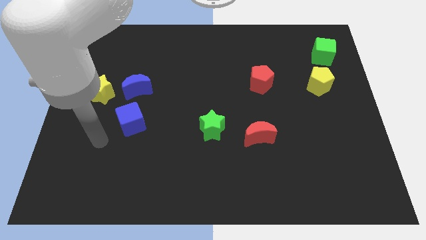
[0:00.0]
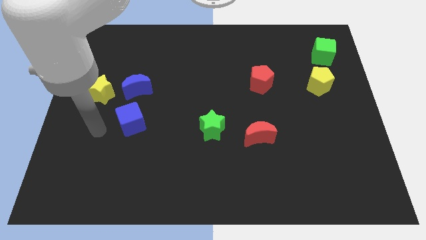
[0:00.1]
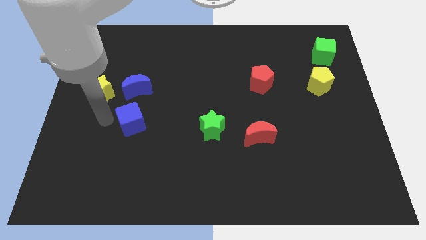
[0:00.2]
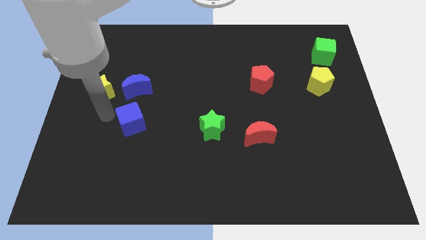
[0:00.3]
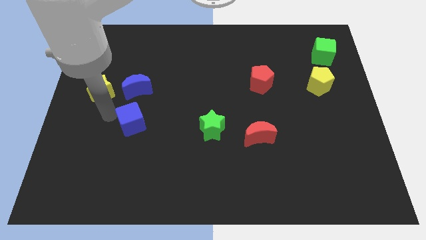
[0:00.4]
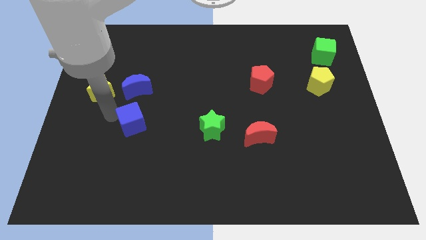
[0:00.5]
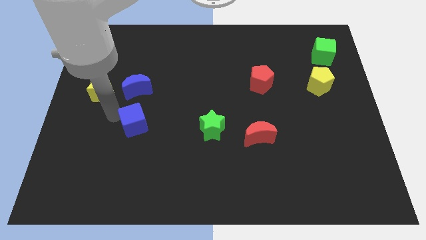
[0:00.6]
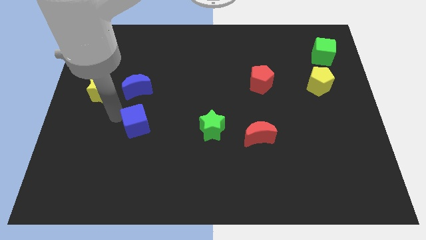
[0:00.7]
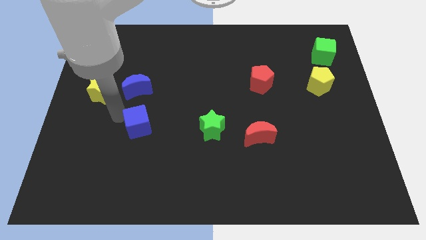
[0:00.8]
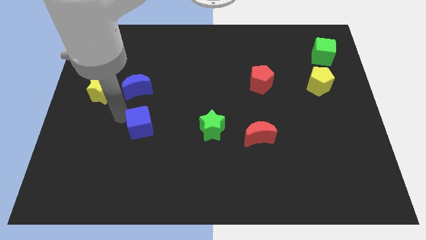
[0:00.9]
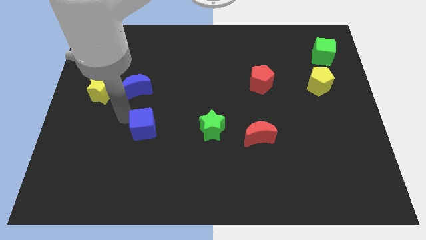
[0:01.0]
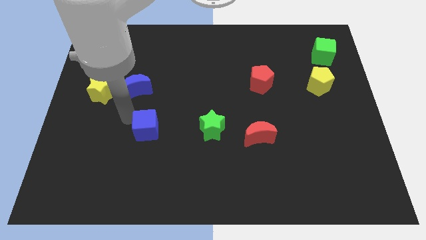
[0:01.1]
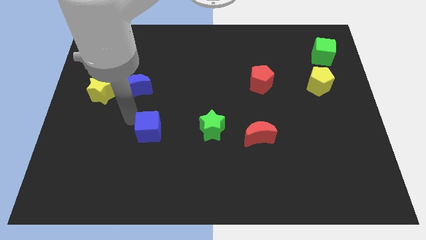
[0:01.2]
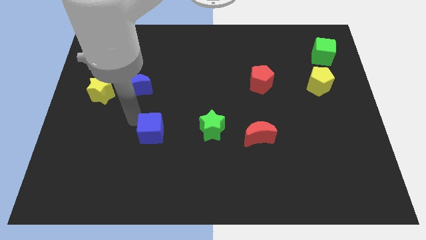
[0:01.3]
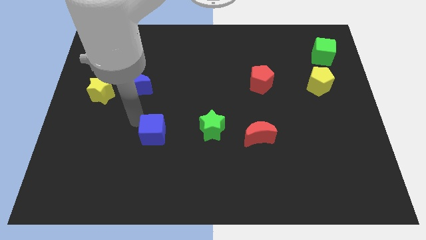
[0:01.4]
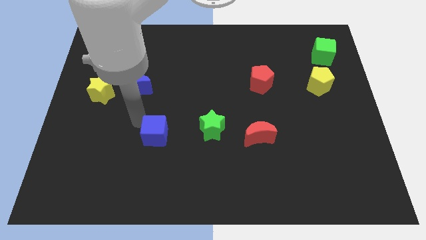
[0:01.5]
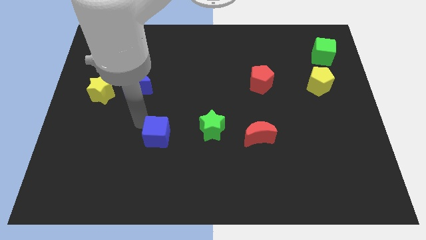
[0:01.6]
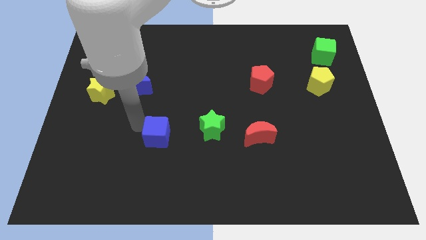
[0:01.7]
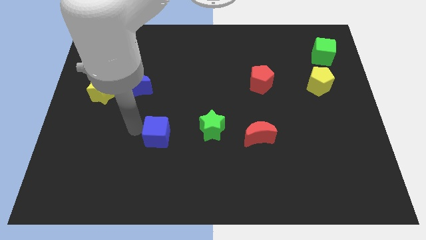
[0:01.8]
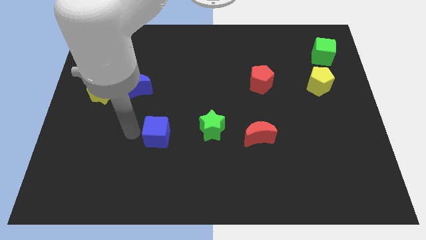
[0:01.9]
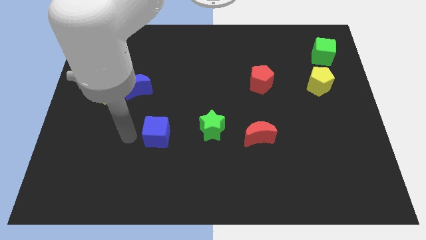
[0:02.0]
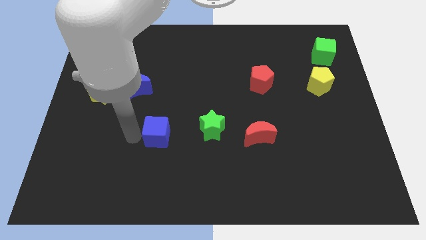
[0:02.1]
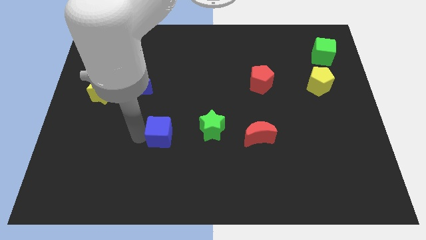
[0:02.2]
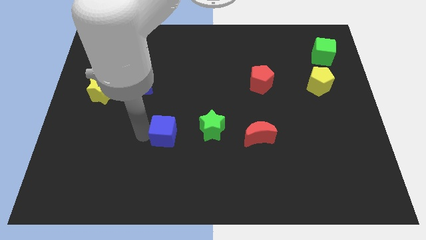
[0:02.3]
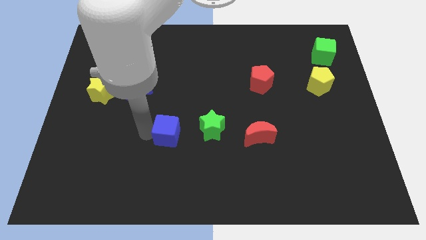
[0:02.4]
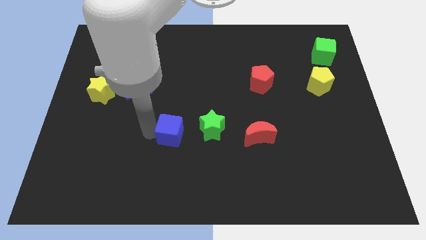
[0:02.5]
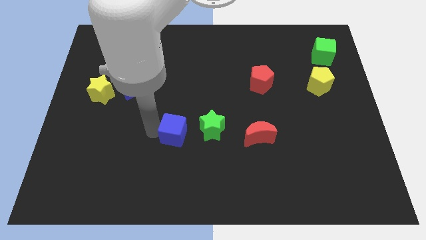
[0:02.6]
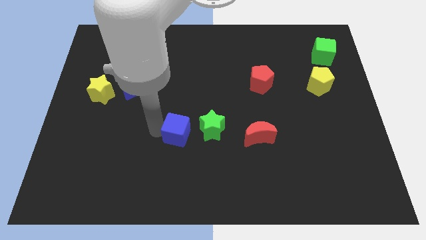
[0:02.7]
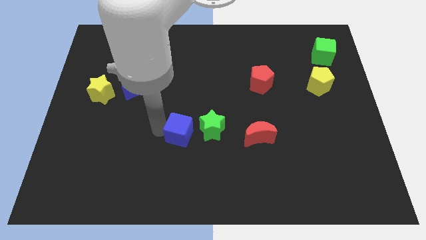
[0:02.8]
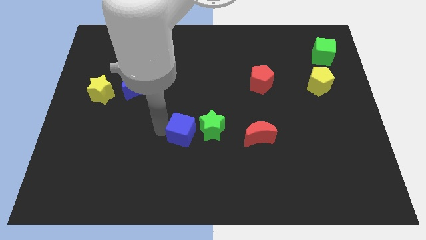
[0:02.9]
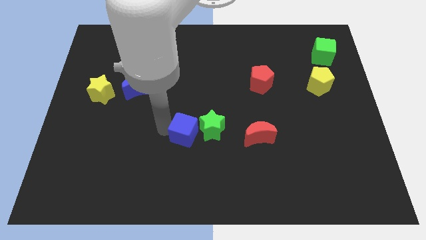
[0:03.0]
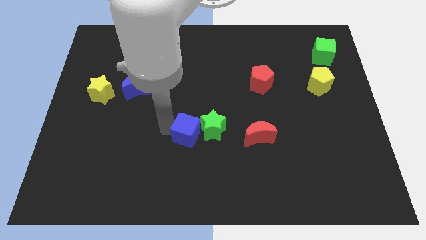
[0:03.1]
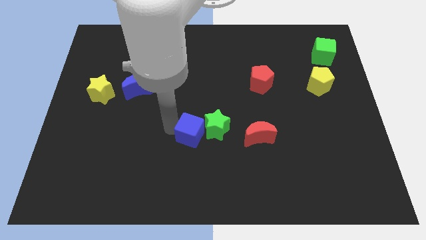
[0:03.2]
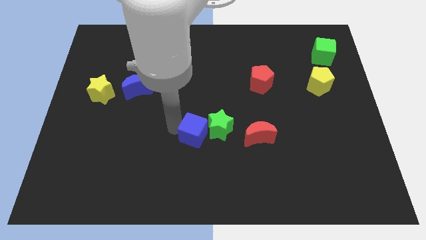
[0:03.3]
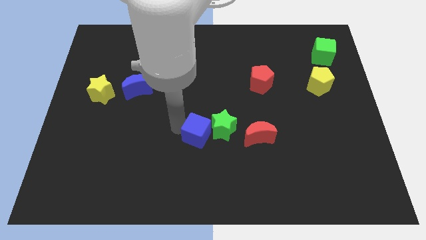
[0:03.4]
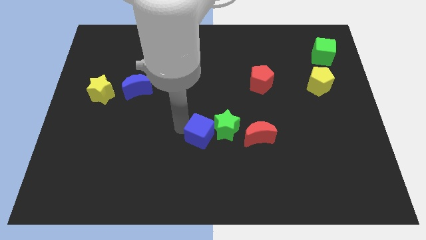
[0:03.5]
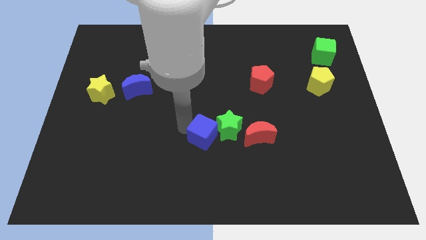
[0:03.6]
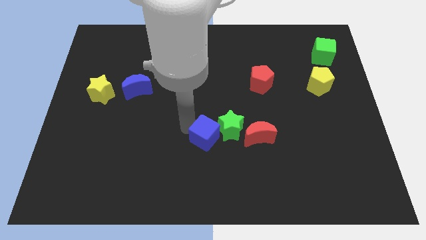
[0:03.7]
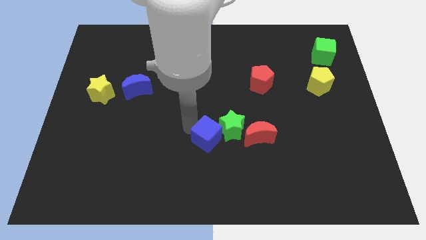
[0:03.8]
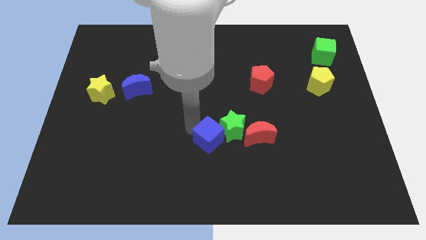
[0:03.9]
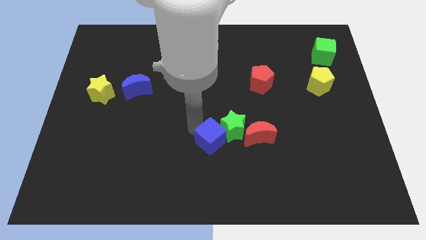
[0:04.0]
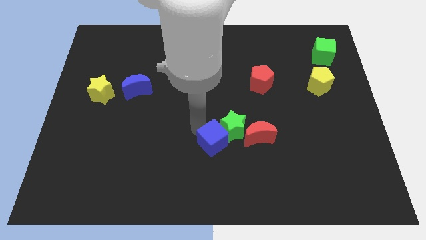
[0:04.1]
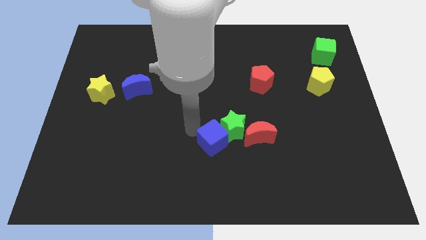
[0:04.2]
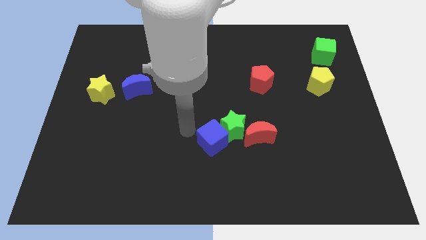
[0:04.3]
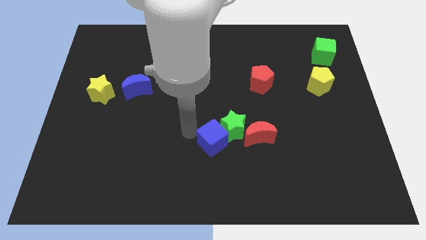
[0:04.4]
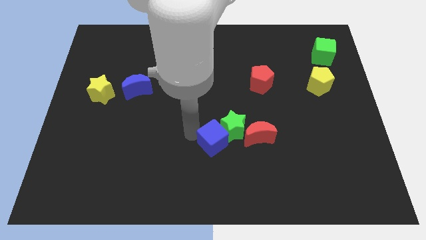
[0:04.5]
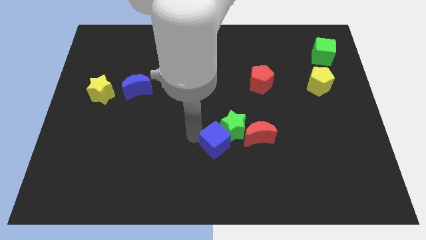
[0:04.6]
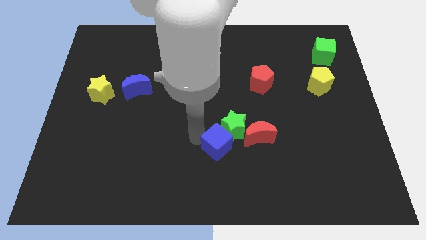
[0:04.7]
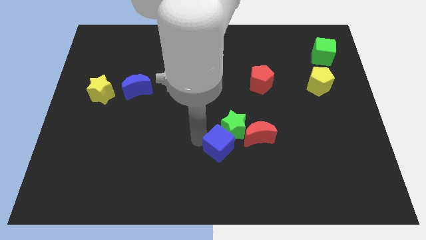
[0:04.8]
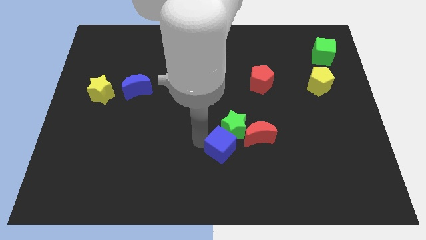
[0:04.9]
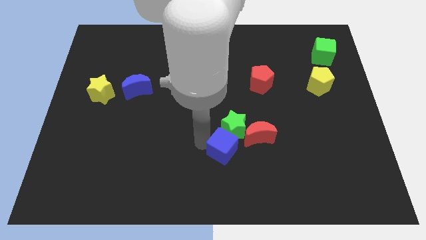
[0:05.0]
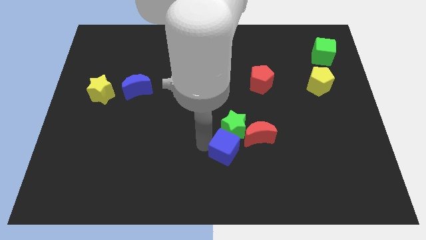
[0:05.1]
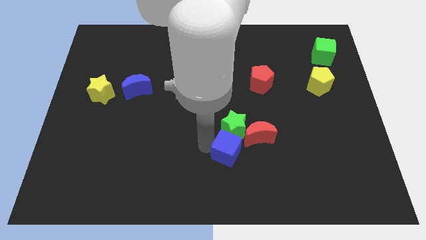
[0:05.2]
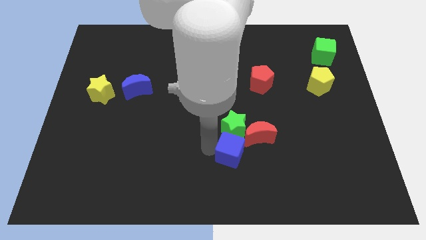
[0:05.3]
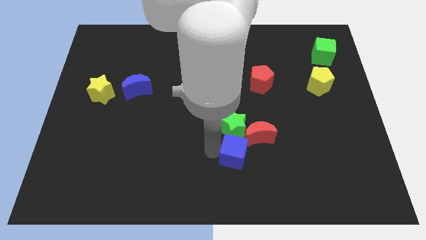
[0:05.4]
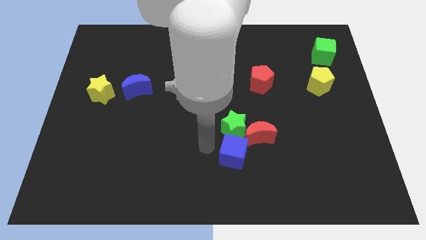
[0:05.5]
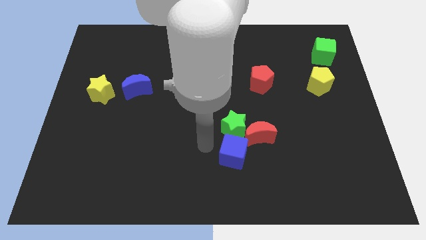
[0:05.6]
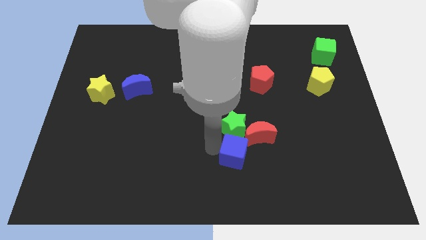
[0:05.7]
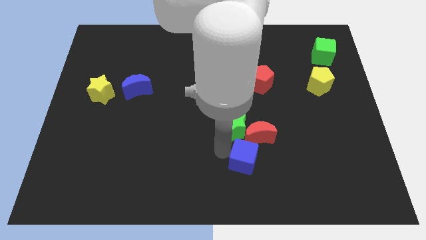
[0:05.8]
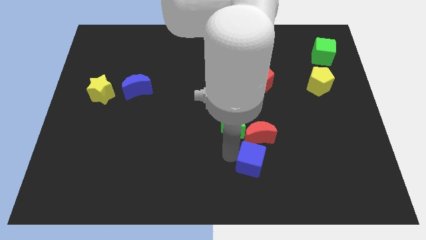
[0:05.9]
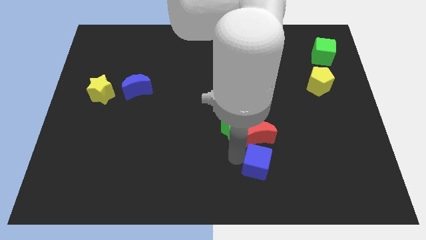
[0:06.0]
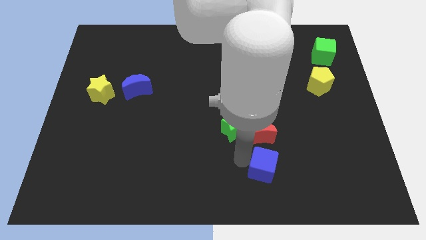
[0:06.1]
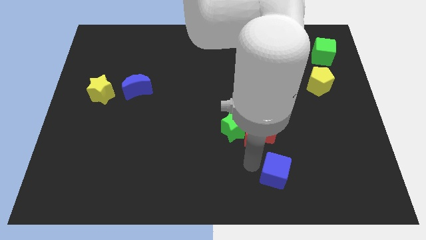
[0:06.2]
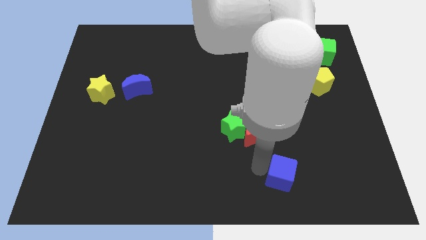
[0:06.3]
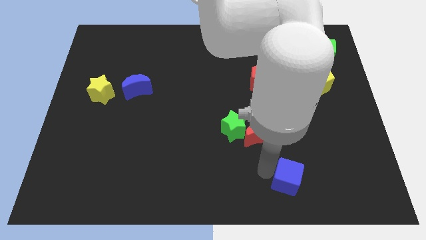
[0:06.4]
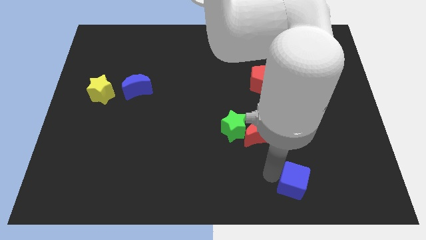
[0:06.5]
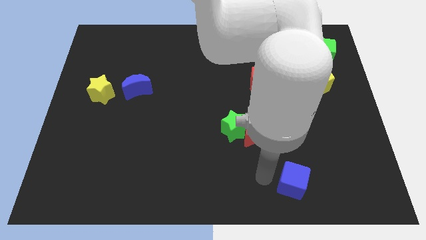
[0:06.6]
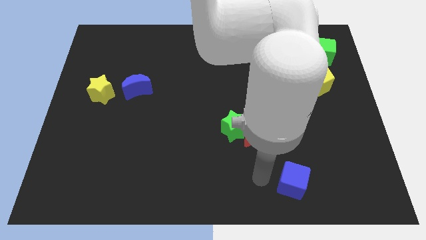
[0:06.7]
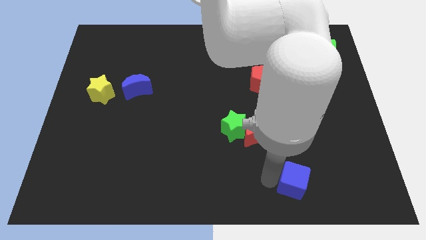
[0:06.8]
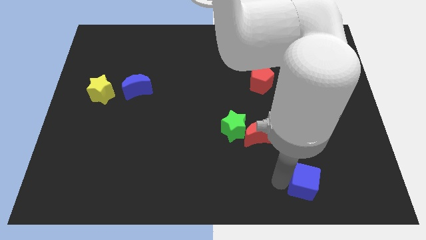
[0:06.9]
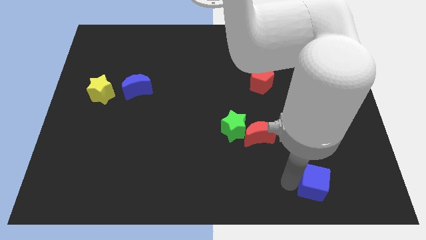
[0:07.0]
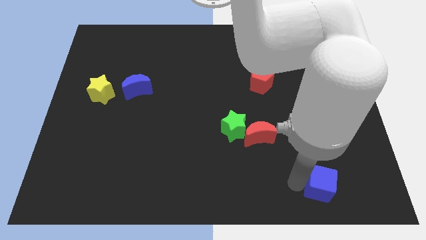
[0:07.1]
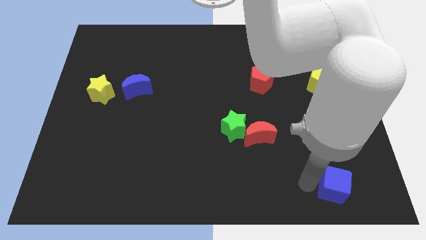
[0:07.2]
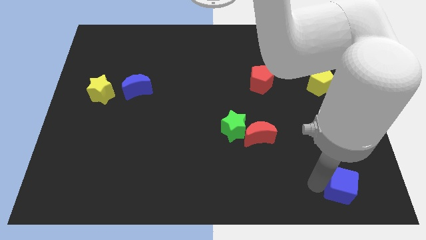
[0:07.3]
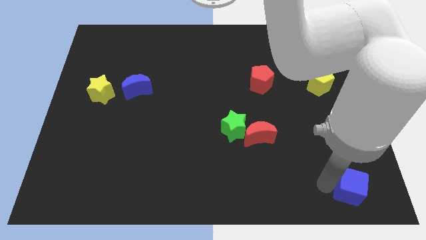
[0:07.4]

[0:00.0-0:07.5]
move the blue cube to the lower right corner
